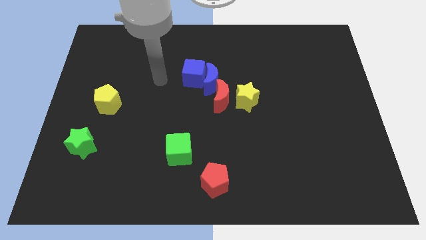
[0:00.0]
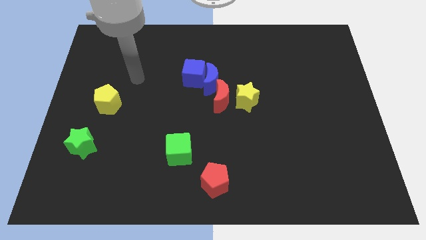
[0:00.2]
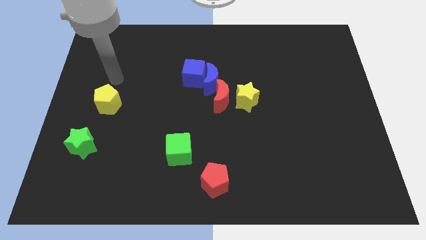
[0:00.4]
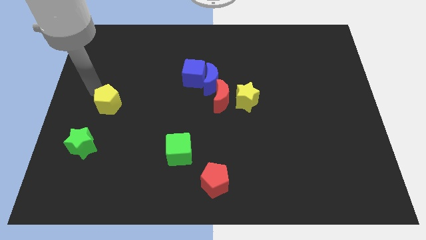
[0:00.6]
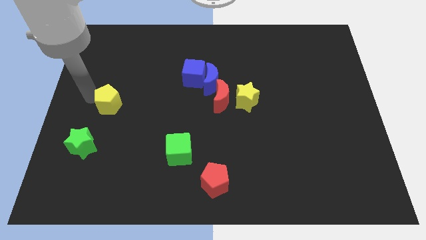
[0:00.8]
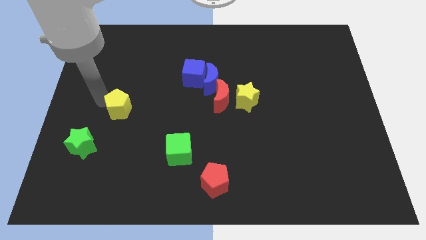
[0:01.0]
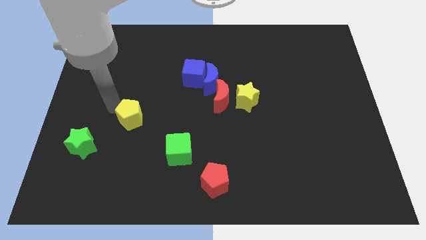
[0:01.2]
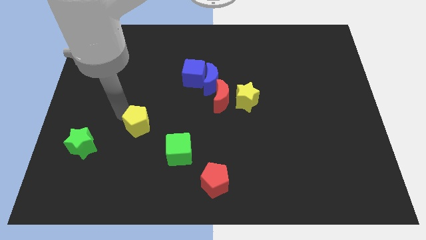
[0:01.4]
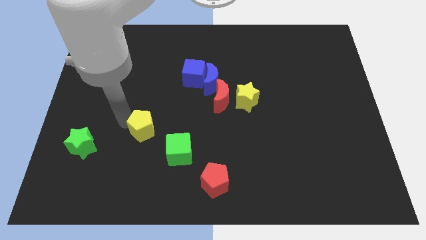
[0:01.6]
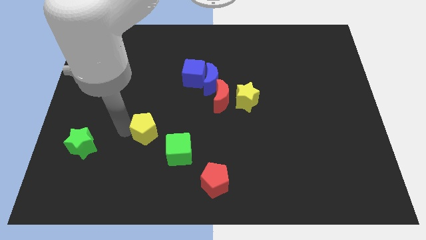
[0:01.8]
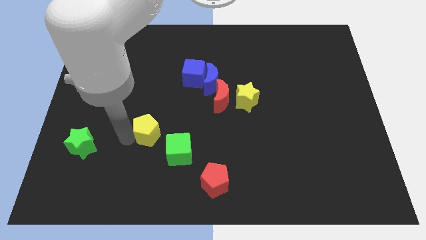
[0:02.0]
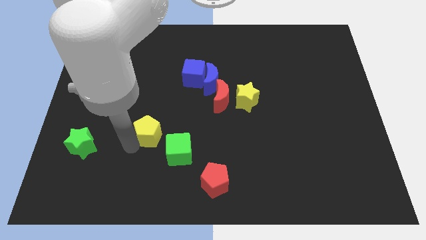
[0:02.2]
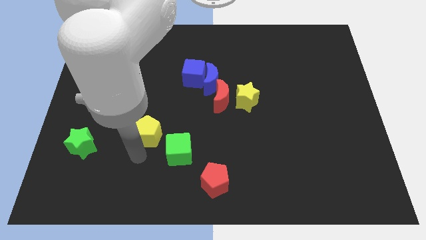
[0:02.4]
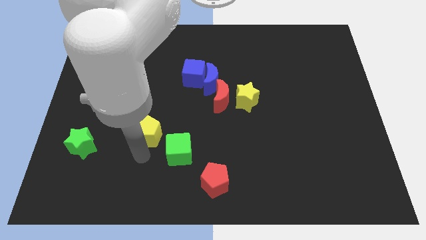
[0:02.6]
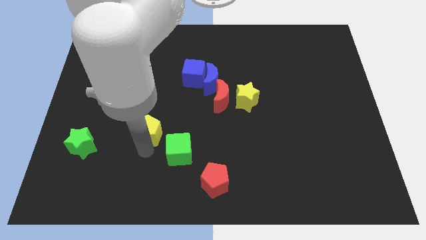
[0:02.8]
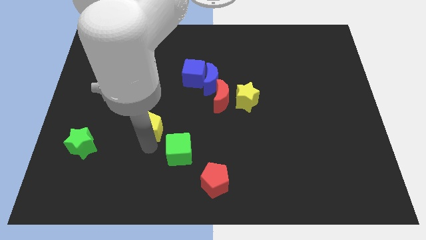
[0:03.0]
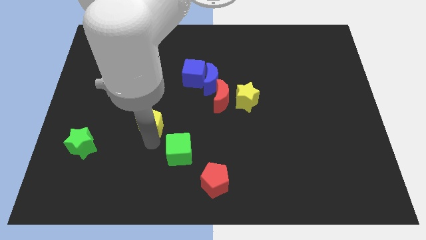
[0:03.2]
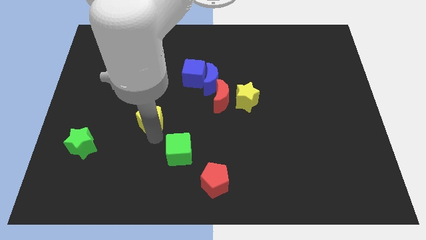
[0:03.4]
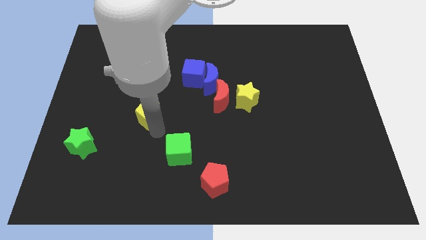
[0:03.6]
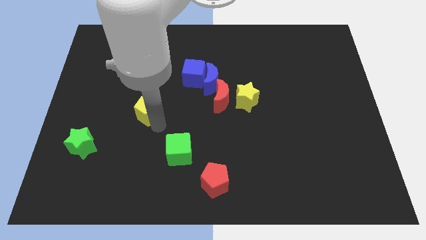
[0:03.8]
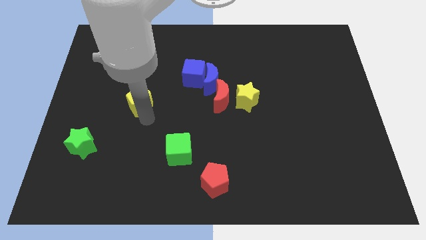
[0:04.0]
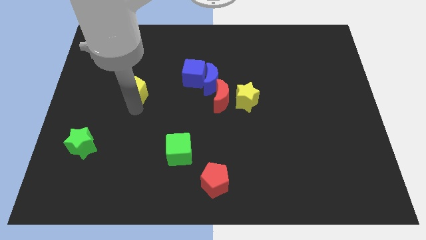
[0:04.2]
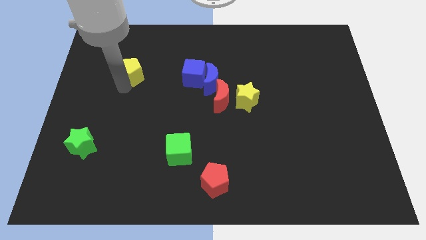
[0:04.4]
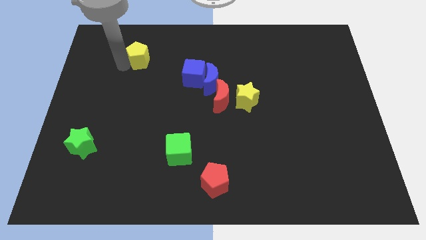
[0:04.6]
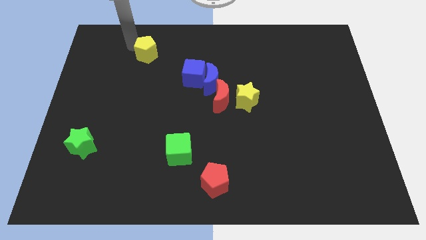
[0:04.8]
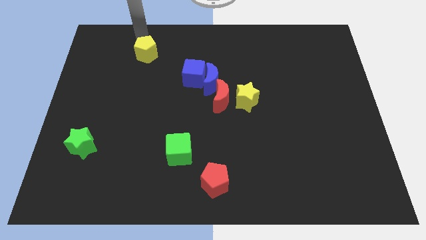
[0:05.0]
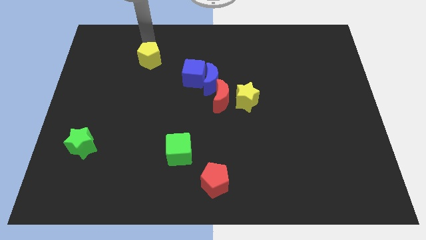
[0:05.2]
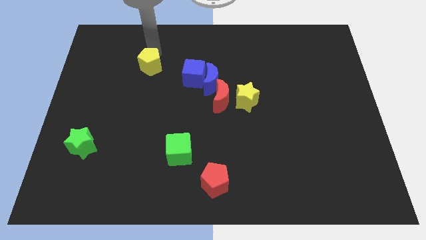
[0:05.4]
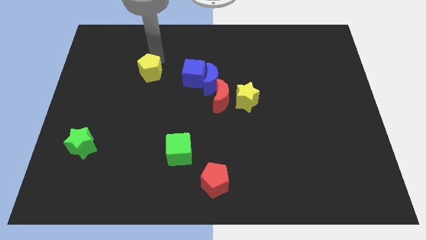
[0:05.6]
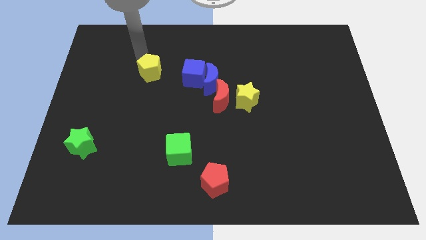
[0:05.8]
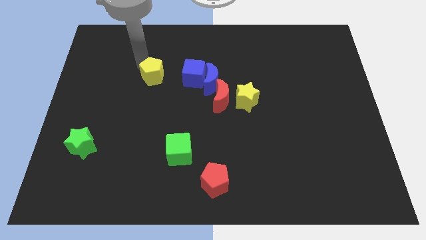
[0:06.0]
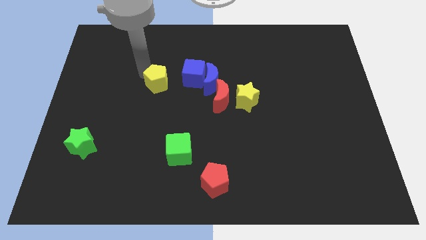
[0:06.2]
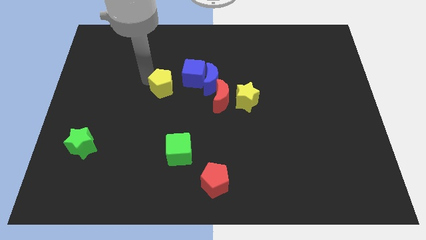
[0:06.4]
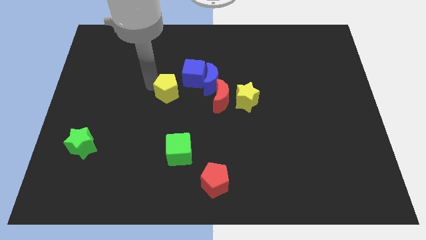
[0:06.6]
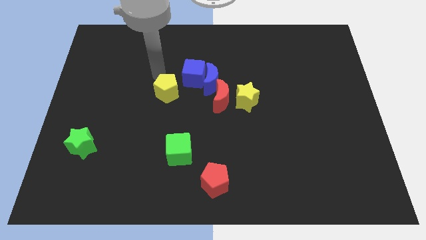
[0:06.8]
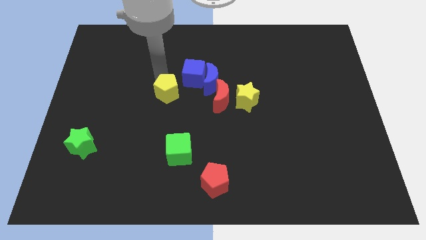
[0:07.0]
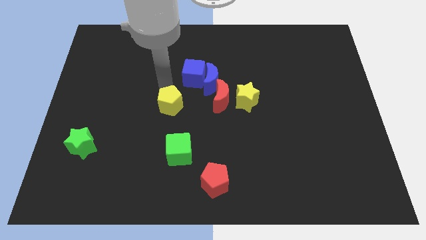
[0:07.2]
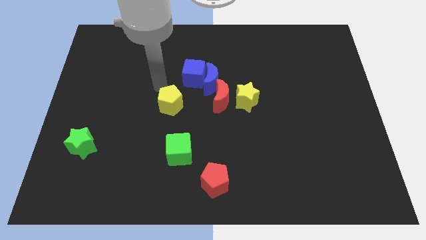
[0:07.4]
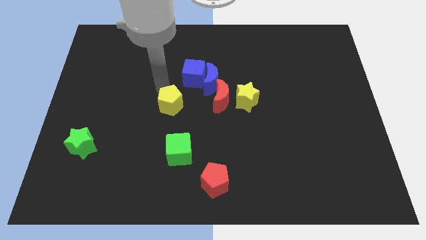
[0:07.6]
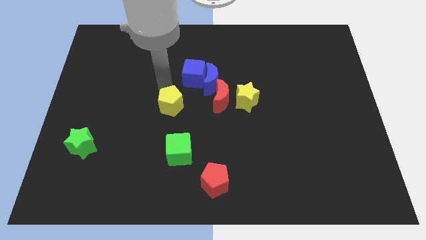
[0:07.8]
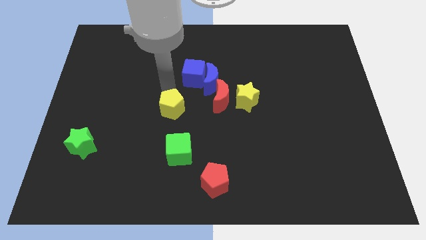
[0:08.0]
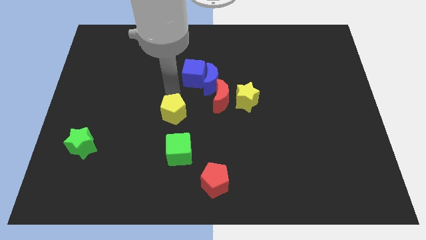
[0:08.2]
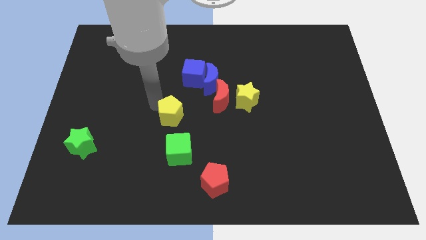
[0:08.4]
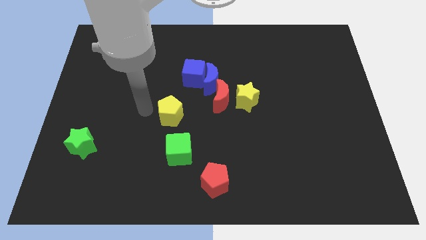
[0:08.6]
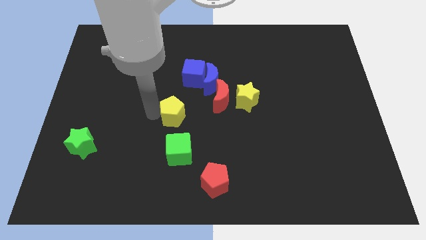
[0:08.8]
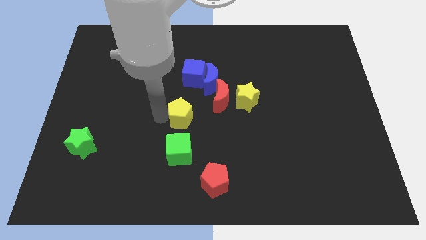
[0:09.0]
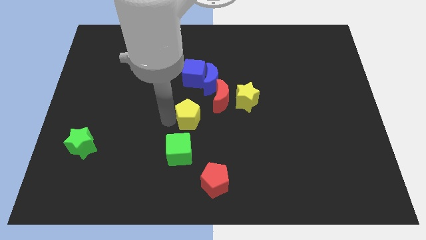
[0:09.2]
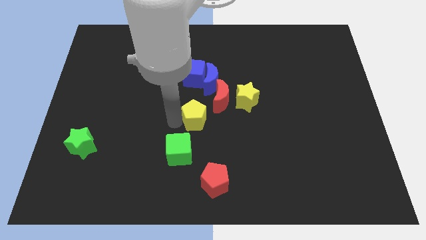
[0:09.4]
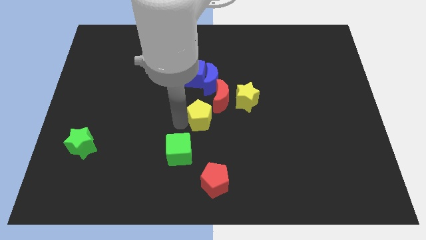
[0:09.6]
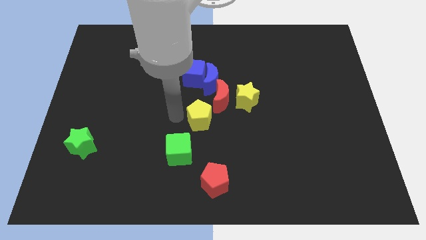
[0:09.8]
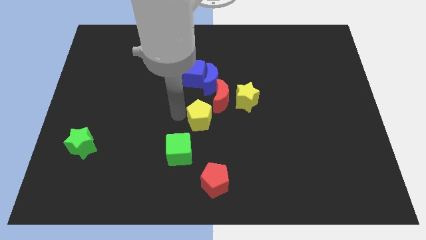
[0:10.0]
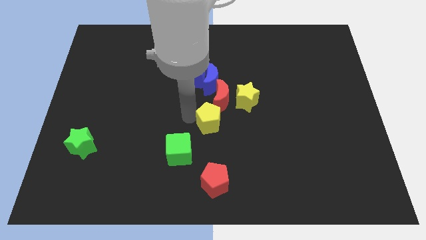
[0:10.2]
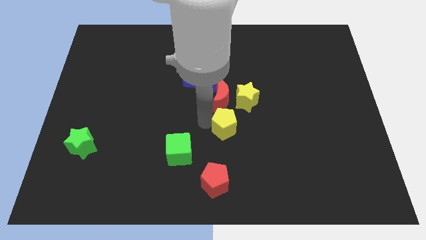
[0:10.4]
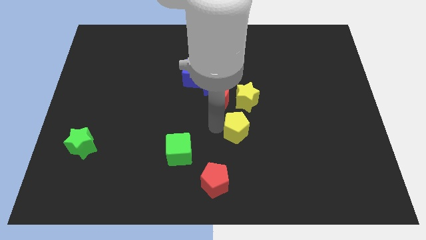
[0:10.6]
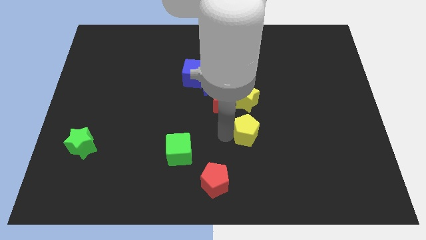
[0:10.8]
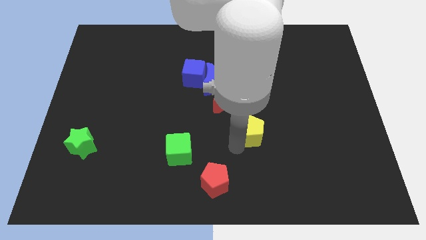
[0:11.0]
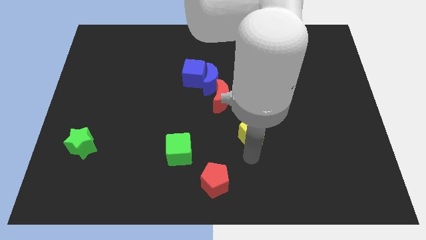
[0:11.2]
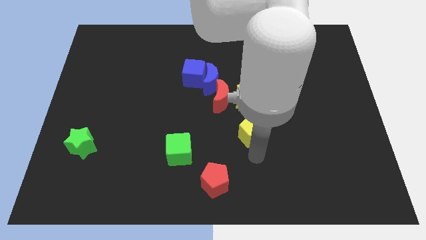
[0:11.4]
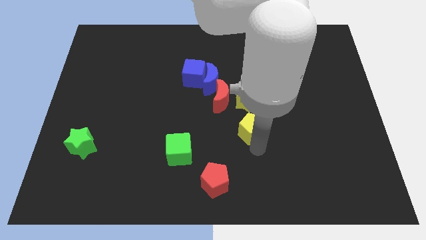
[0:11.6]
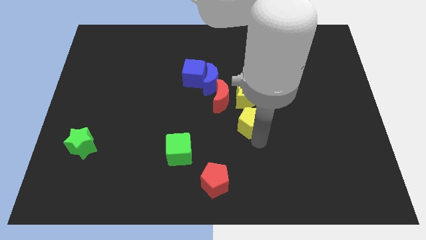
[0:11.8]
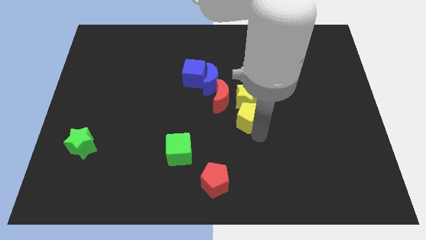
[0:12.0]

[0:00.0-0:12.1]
move the yellow pentagon to the yellow star

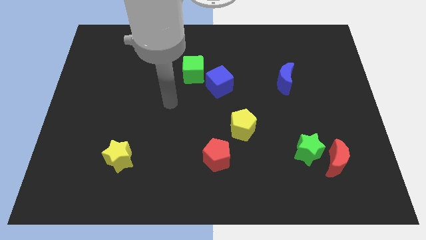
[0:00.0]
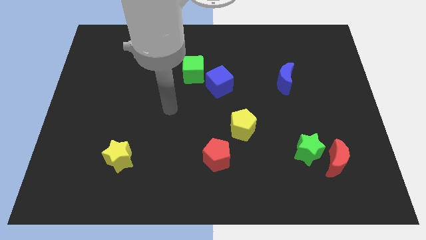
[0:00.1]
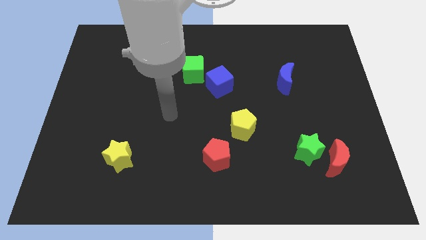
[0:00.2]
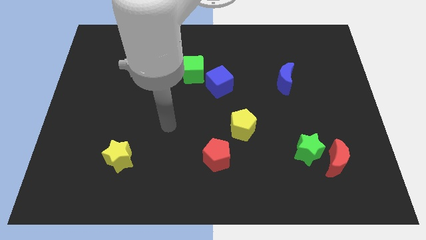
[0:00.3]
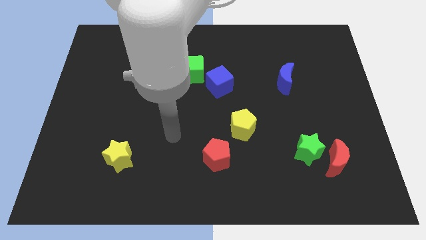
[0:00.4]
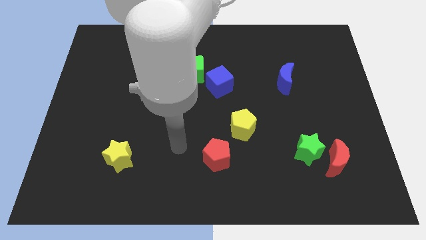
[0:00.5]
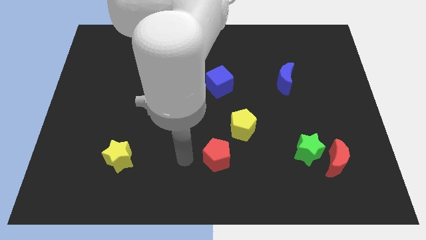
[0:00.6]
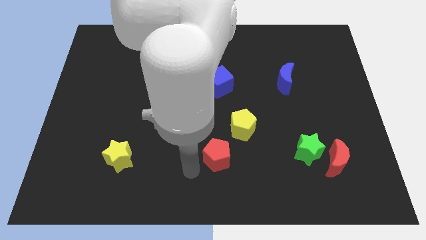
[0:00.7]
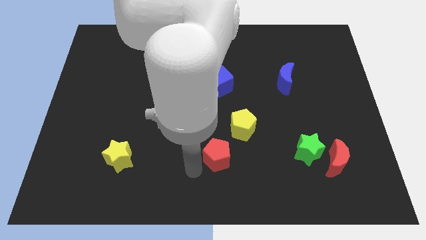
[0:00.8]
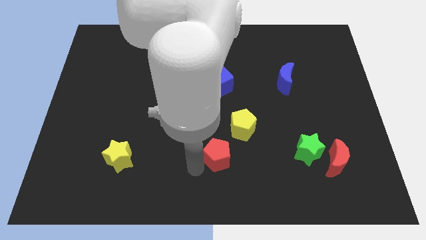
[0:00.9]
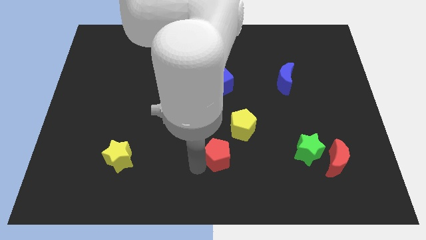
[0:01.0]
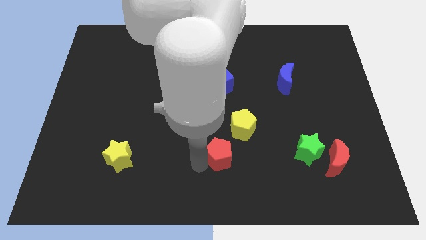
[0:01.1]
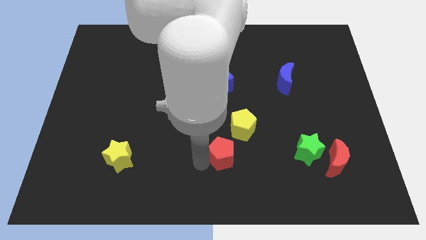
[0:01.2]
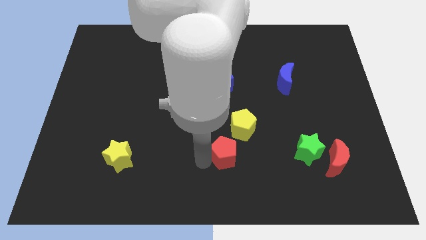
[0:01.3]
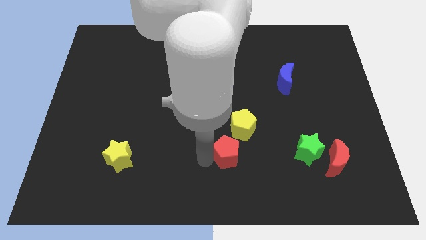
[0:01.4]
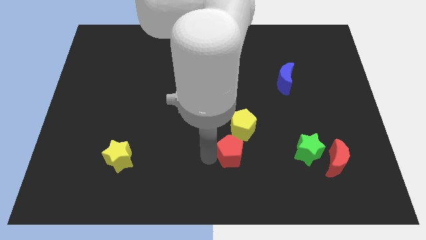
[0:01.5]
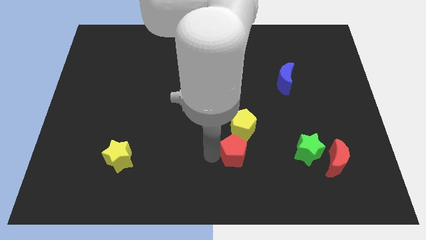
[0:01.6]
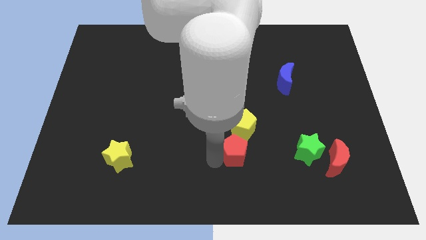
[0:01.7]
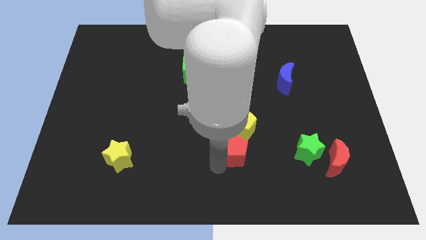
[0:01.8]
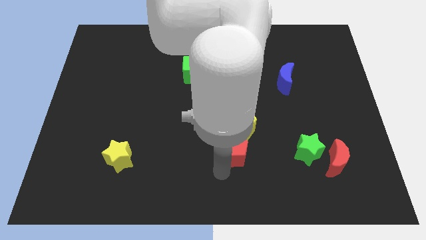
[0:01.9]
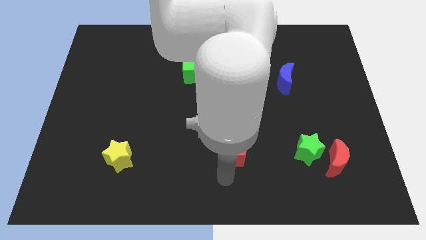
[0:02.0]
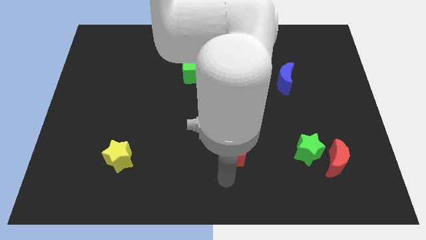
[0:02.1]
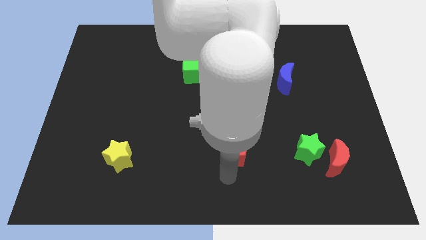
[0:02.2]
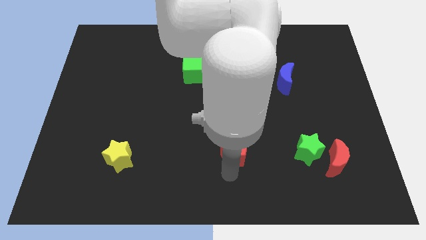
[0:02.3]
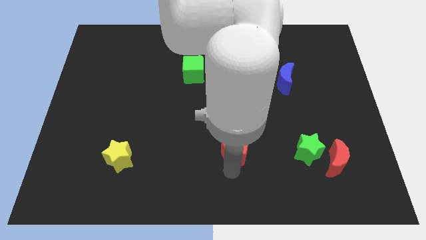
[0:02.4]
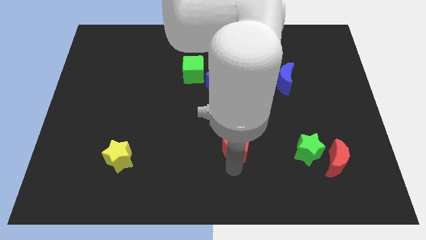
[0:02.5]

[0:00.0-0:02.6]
move the red pentagon towards the yellow pentagon
